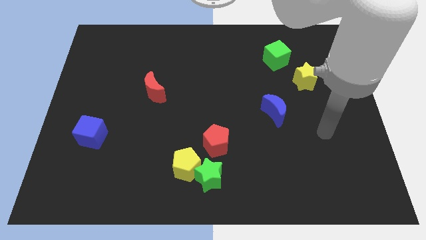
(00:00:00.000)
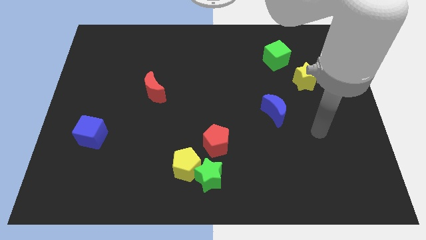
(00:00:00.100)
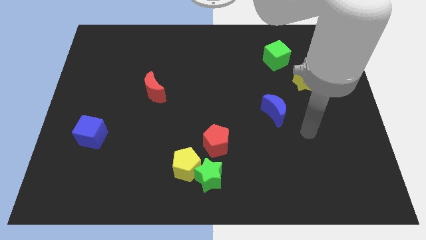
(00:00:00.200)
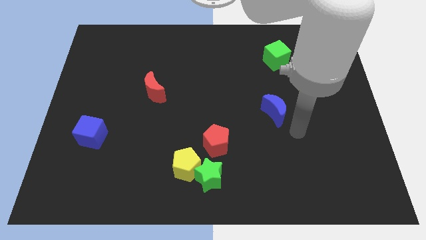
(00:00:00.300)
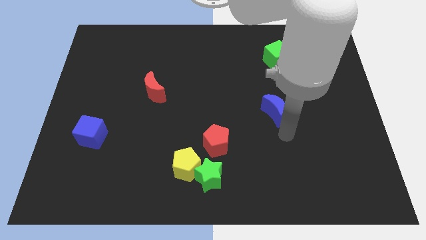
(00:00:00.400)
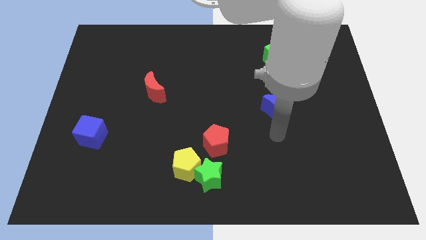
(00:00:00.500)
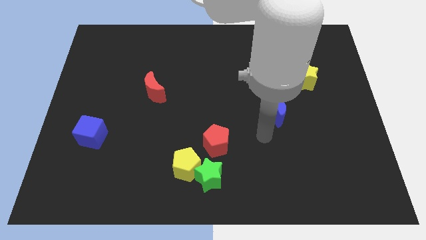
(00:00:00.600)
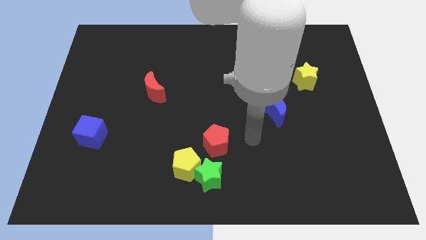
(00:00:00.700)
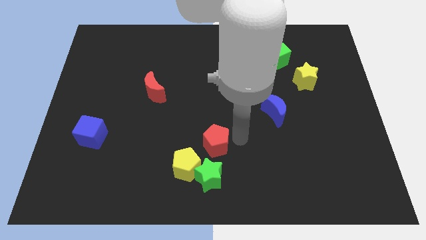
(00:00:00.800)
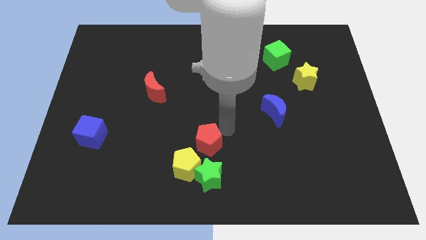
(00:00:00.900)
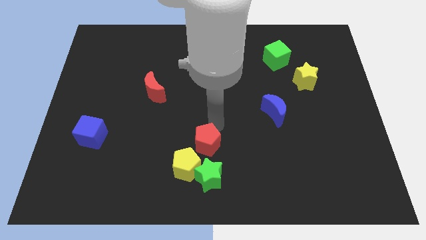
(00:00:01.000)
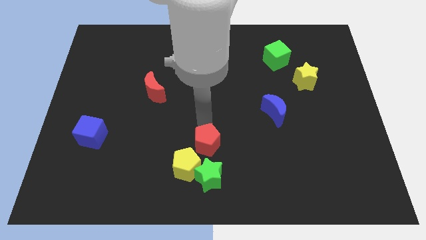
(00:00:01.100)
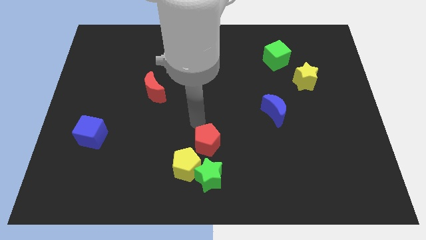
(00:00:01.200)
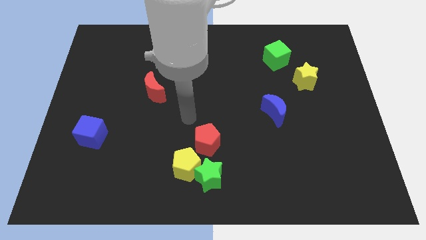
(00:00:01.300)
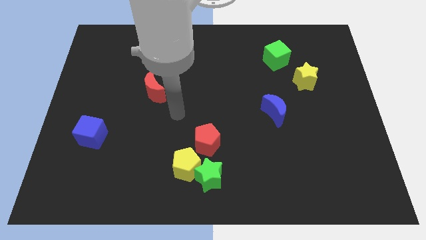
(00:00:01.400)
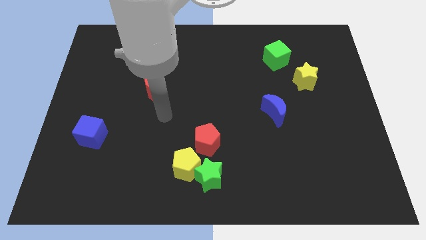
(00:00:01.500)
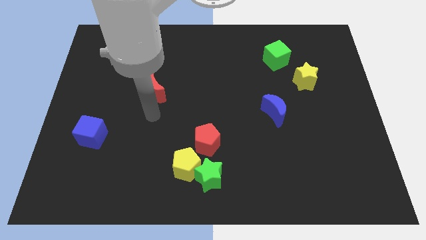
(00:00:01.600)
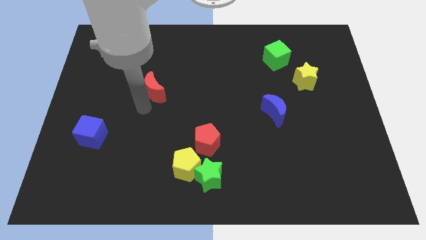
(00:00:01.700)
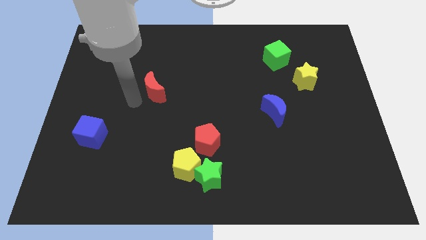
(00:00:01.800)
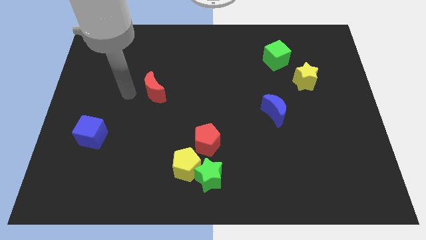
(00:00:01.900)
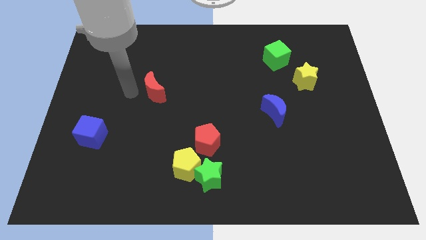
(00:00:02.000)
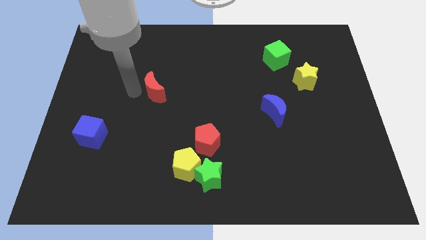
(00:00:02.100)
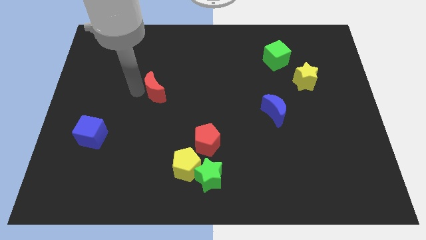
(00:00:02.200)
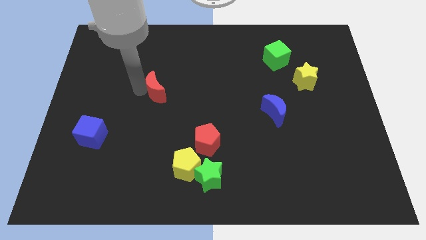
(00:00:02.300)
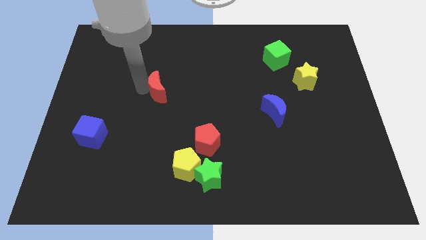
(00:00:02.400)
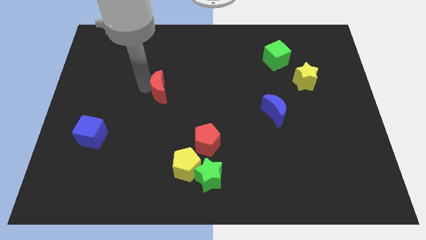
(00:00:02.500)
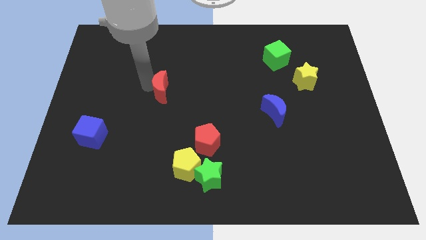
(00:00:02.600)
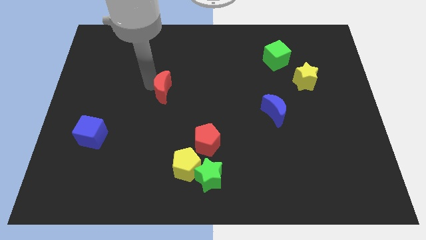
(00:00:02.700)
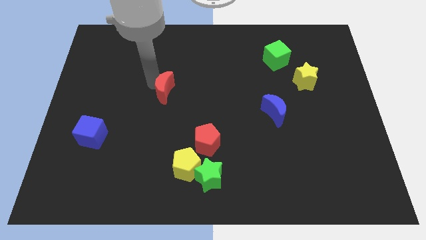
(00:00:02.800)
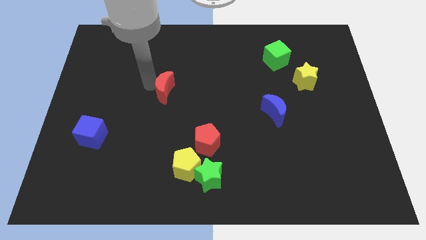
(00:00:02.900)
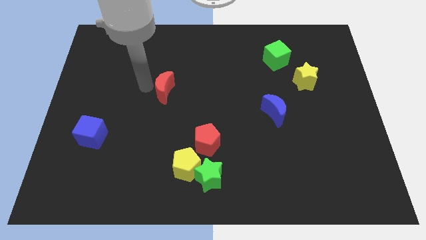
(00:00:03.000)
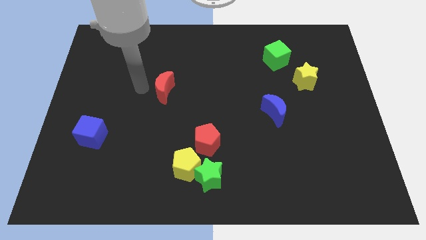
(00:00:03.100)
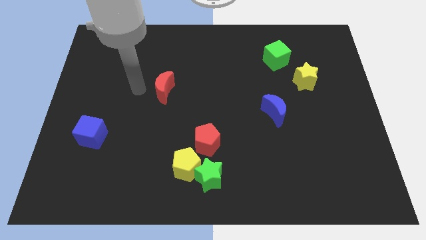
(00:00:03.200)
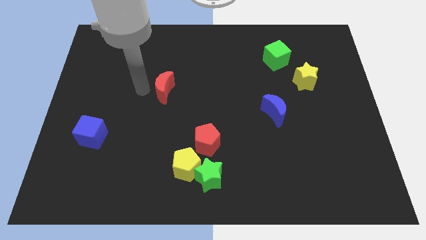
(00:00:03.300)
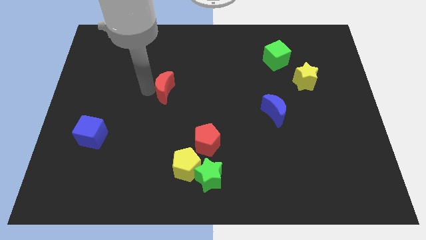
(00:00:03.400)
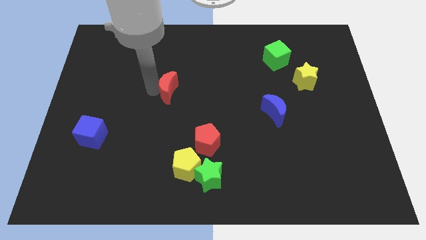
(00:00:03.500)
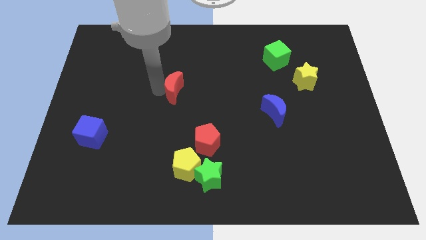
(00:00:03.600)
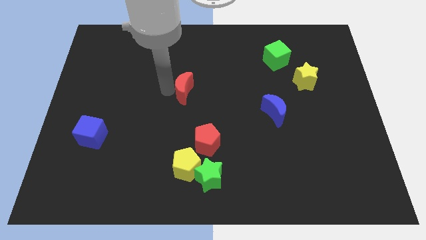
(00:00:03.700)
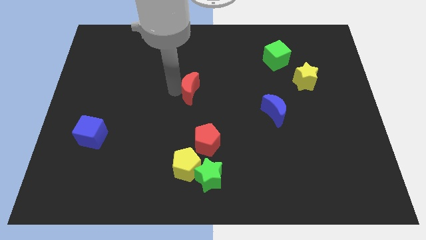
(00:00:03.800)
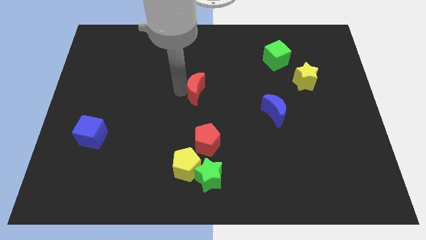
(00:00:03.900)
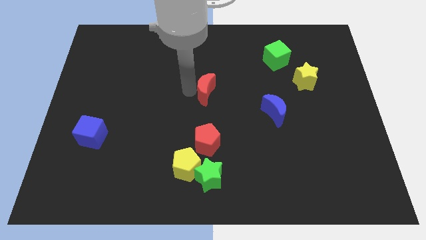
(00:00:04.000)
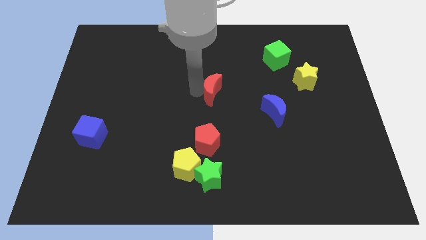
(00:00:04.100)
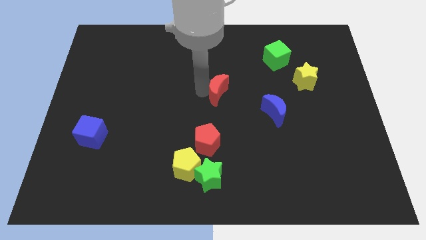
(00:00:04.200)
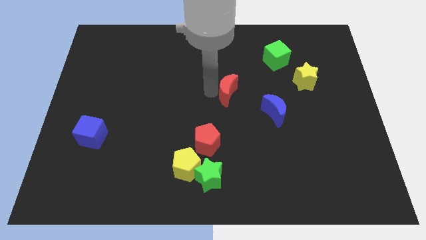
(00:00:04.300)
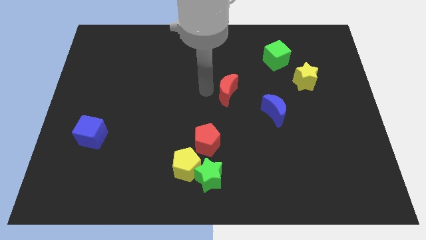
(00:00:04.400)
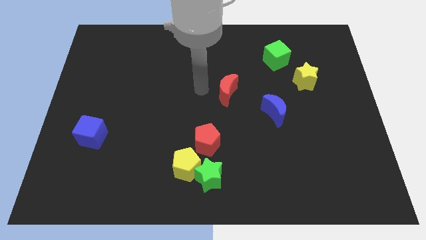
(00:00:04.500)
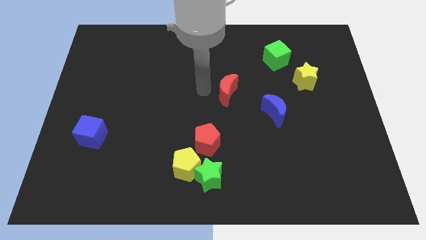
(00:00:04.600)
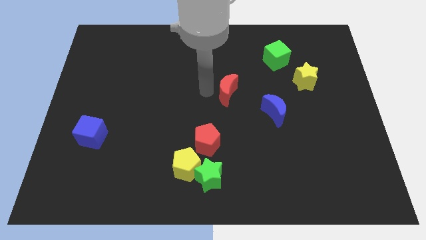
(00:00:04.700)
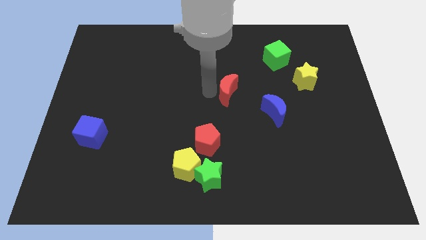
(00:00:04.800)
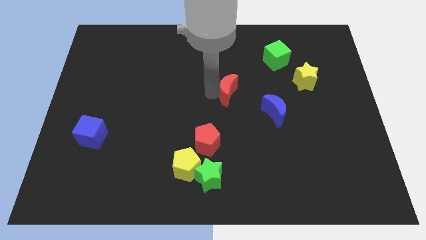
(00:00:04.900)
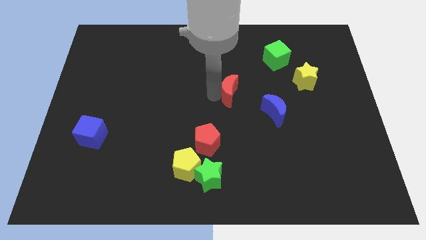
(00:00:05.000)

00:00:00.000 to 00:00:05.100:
move the red moon to the top left of the blue moon

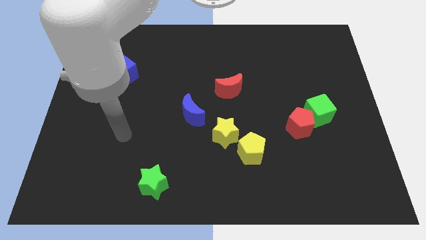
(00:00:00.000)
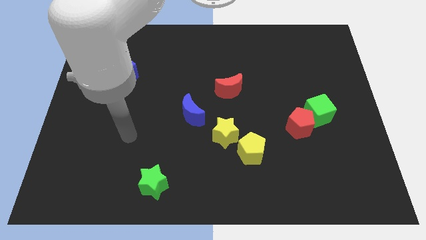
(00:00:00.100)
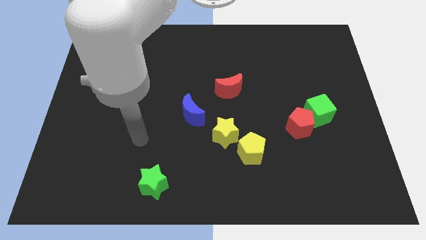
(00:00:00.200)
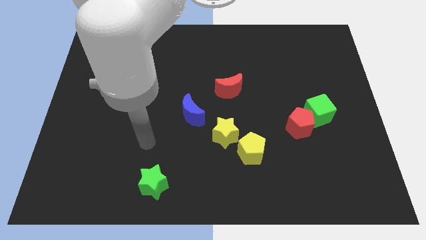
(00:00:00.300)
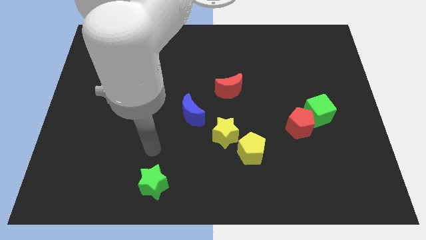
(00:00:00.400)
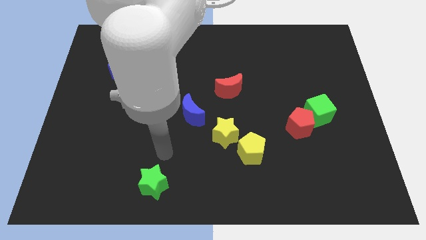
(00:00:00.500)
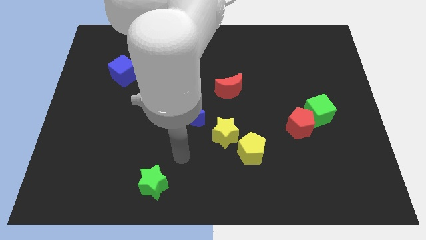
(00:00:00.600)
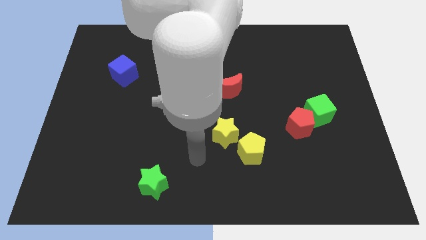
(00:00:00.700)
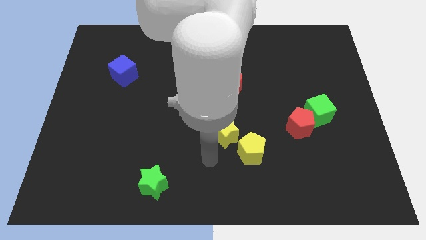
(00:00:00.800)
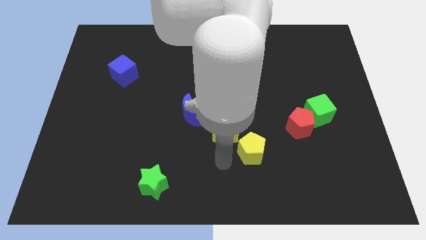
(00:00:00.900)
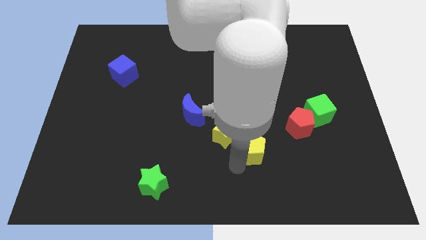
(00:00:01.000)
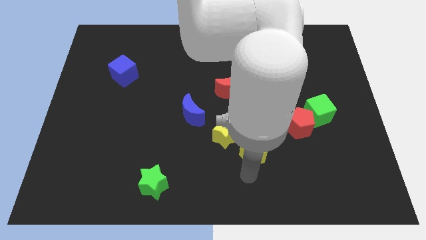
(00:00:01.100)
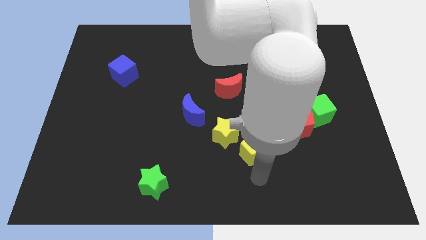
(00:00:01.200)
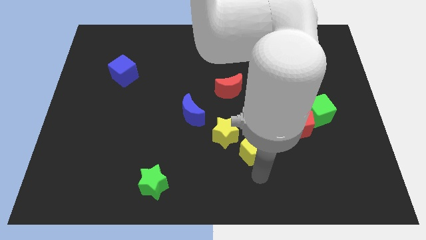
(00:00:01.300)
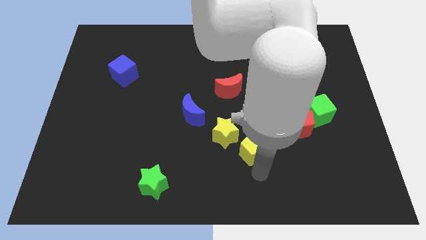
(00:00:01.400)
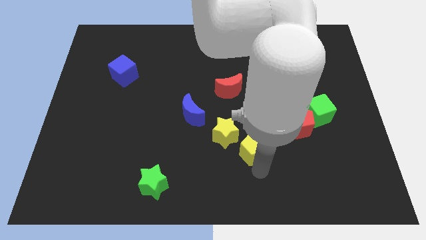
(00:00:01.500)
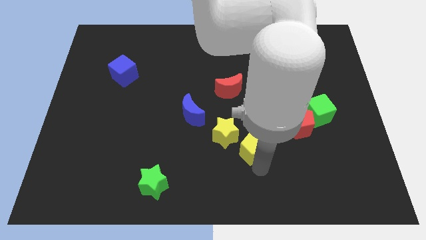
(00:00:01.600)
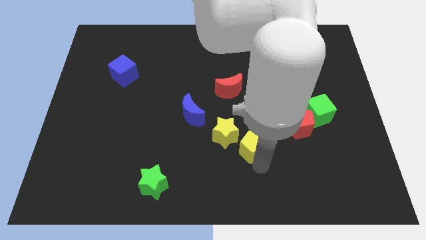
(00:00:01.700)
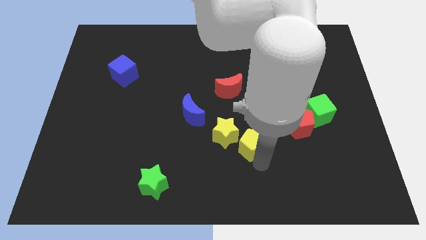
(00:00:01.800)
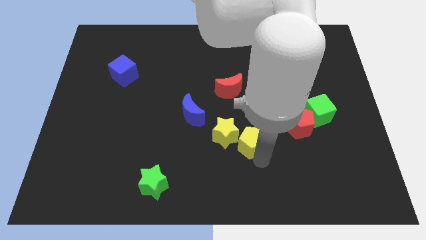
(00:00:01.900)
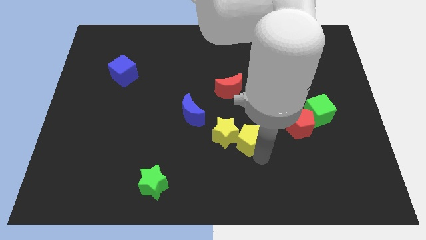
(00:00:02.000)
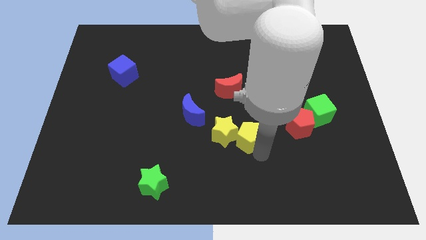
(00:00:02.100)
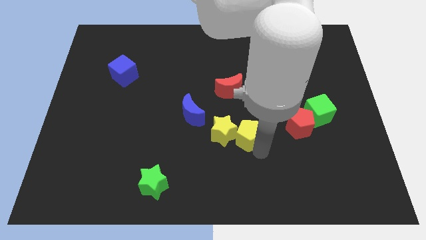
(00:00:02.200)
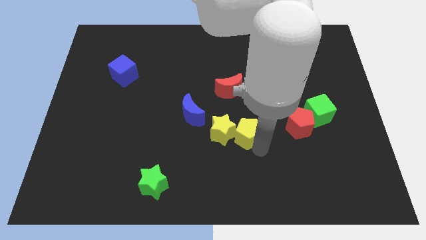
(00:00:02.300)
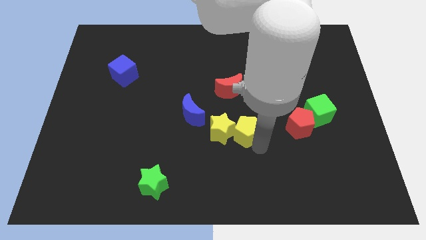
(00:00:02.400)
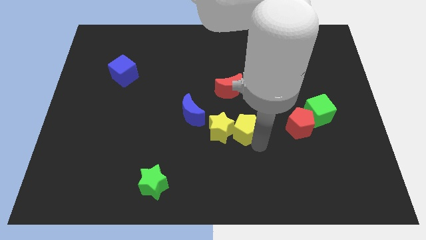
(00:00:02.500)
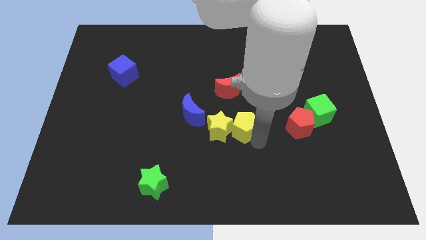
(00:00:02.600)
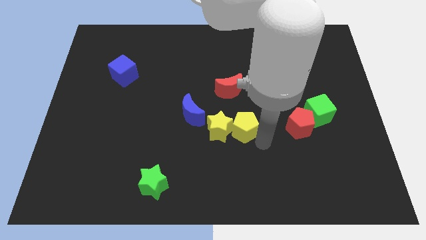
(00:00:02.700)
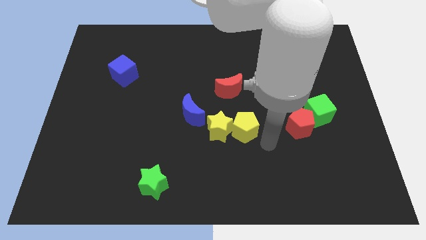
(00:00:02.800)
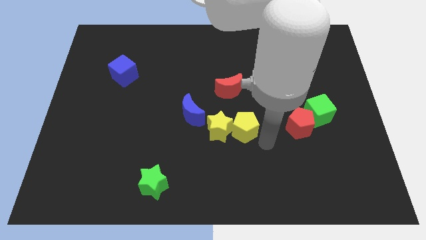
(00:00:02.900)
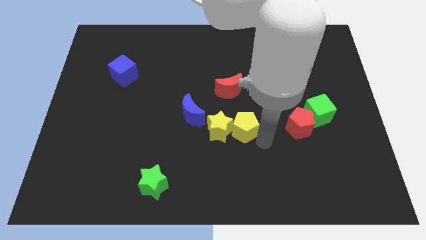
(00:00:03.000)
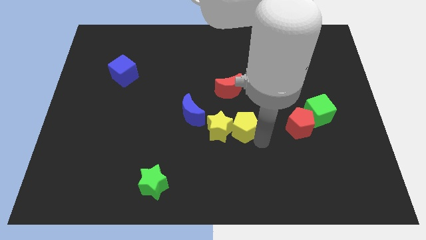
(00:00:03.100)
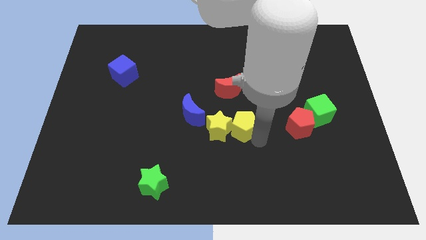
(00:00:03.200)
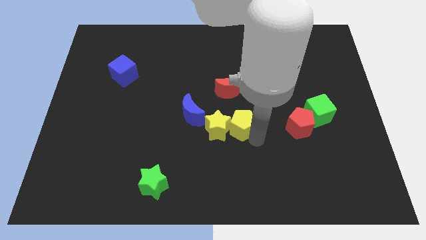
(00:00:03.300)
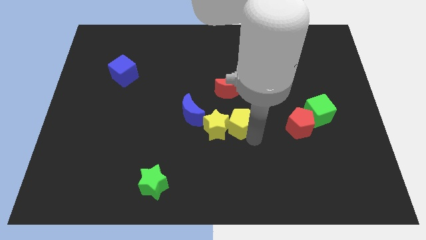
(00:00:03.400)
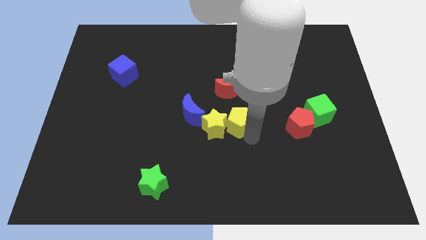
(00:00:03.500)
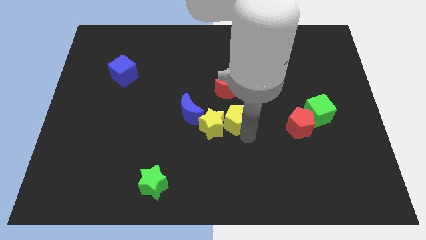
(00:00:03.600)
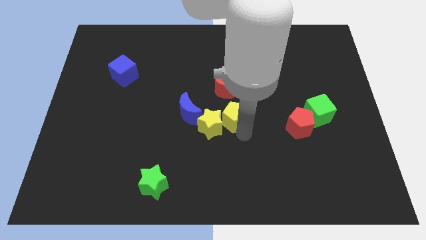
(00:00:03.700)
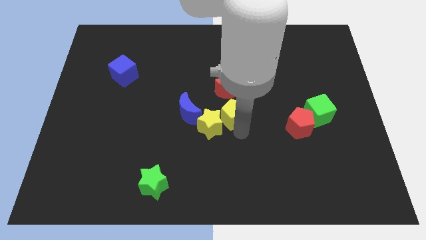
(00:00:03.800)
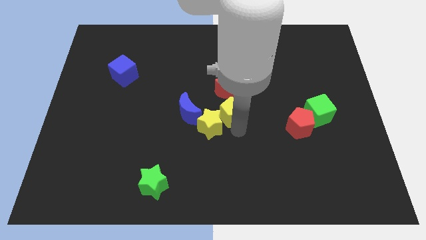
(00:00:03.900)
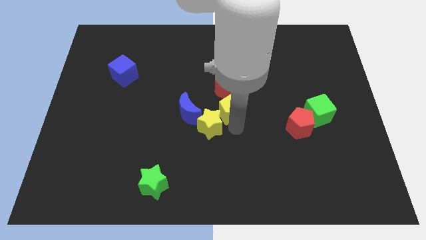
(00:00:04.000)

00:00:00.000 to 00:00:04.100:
move the yellow pentagon diagonally down and to the left of the red moon
